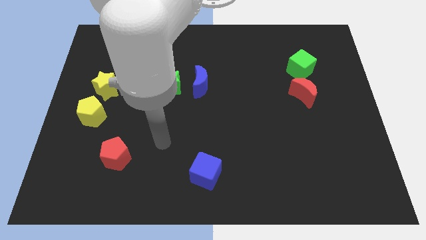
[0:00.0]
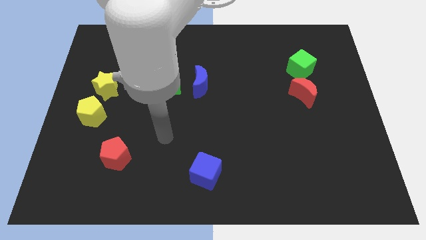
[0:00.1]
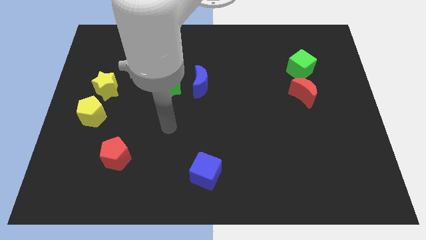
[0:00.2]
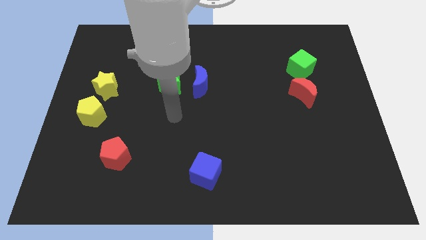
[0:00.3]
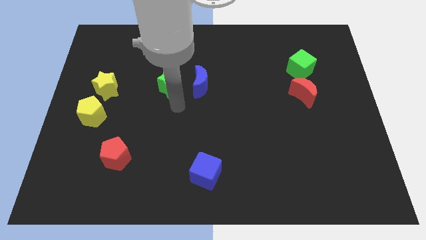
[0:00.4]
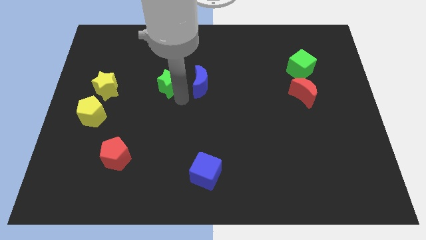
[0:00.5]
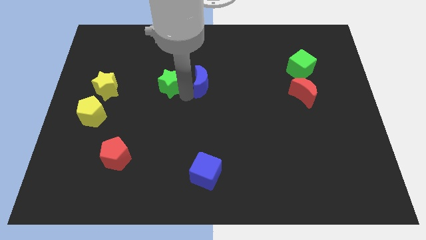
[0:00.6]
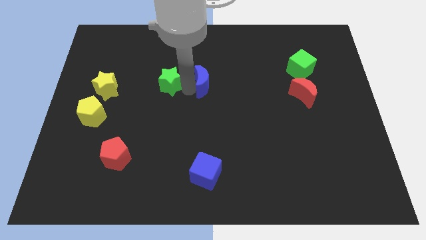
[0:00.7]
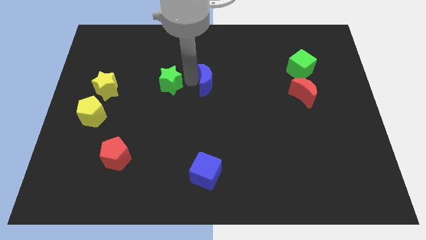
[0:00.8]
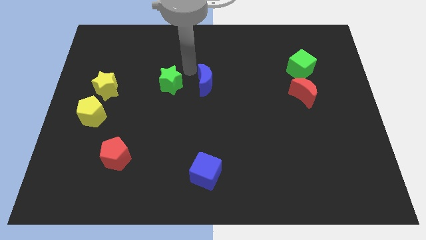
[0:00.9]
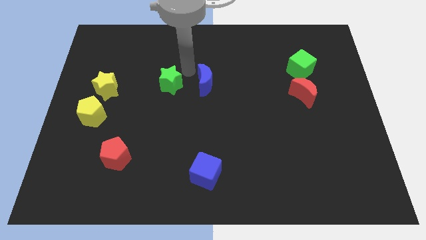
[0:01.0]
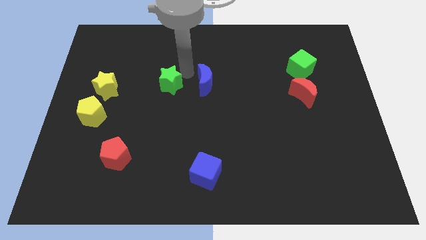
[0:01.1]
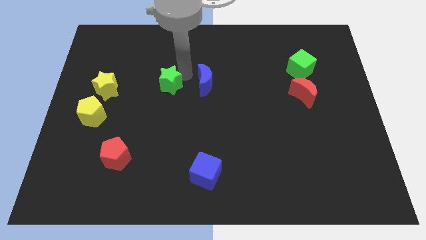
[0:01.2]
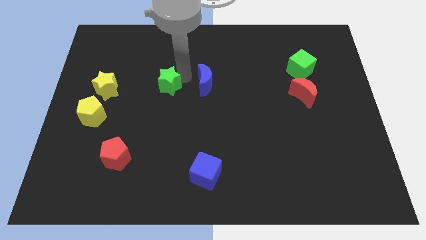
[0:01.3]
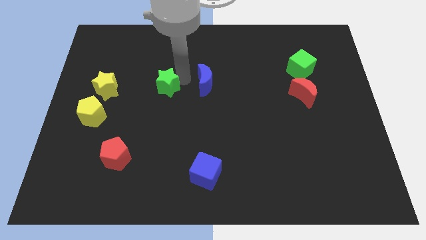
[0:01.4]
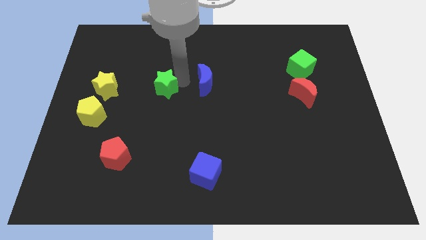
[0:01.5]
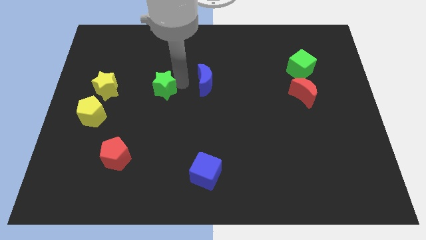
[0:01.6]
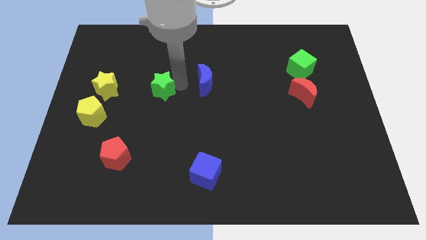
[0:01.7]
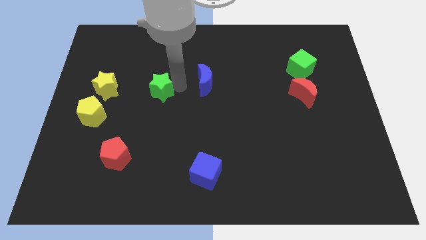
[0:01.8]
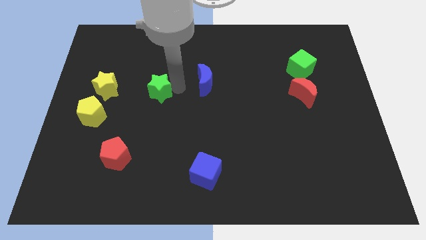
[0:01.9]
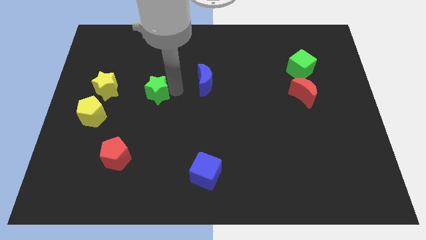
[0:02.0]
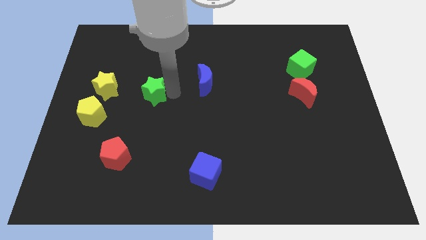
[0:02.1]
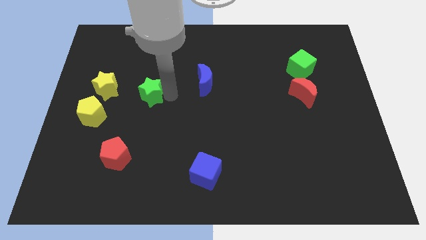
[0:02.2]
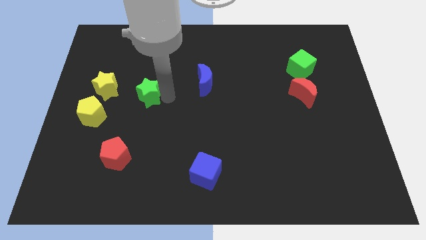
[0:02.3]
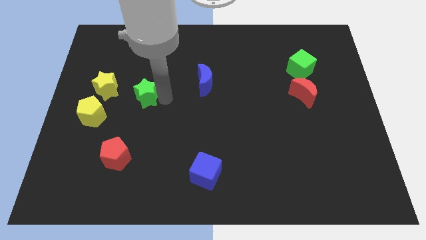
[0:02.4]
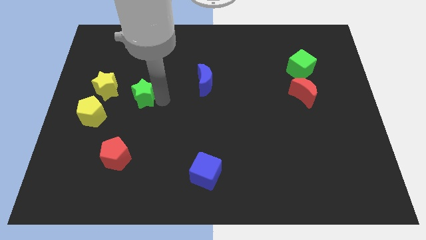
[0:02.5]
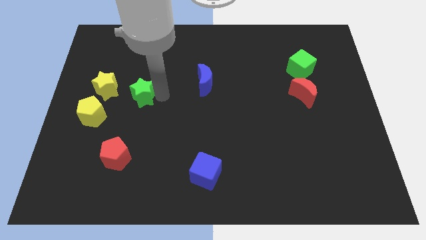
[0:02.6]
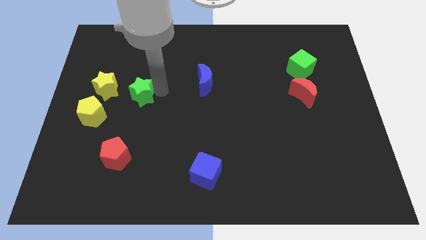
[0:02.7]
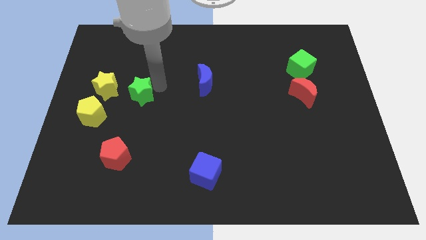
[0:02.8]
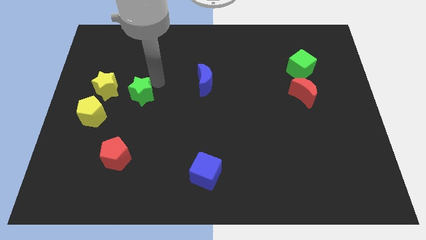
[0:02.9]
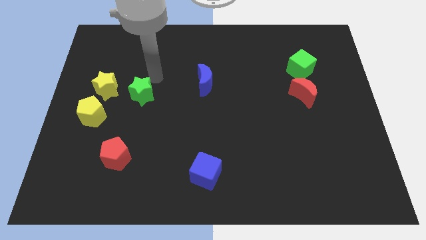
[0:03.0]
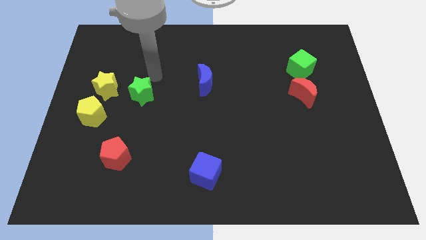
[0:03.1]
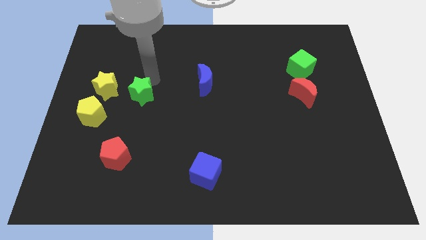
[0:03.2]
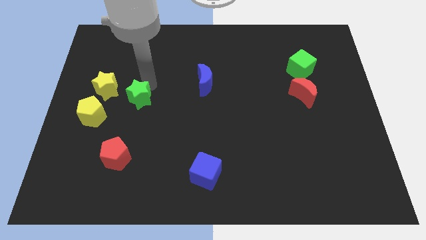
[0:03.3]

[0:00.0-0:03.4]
slide the green star down and then to the left a bit

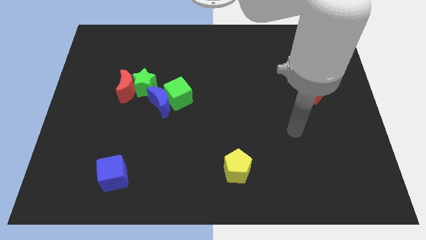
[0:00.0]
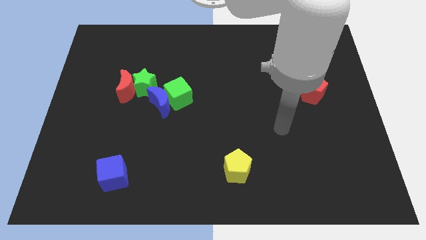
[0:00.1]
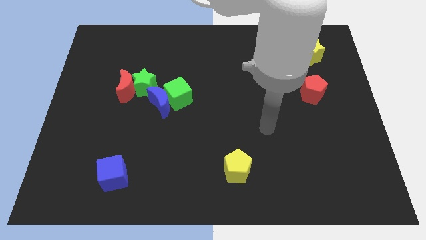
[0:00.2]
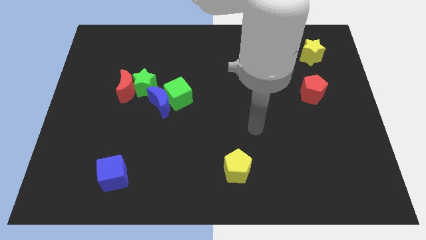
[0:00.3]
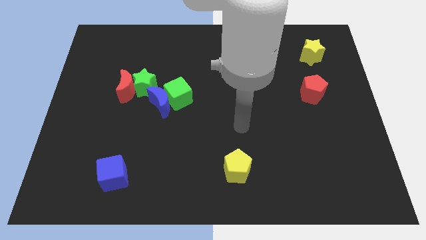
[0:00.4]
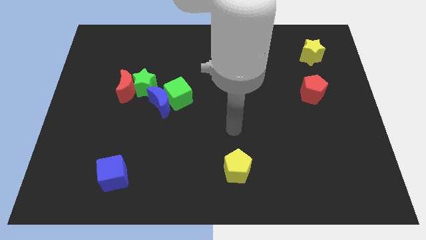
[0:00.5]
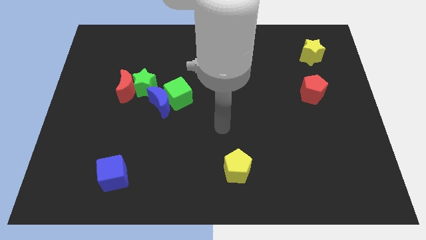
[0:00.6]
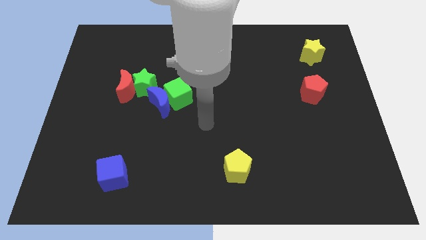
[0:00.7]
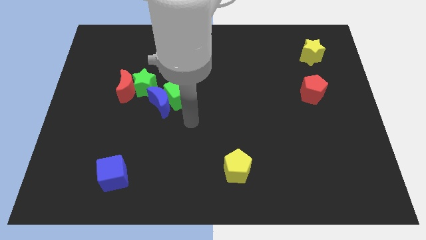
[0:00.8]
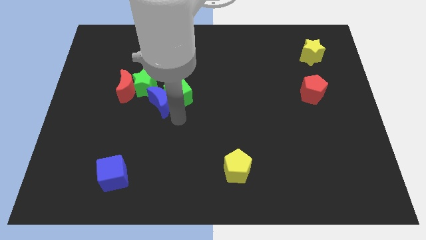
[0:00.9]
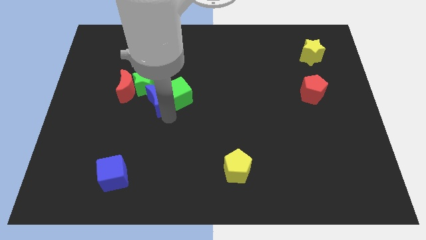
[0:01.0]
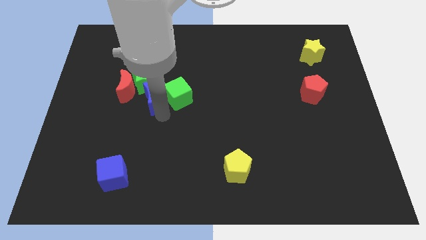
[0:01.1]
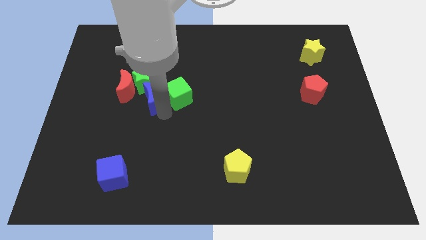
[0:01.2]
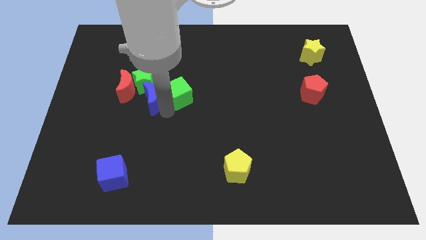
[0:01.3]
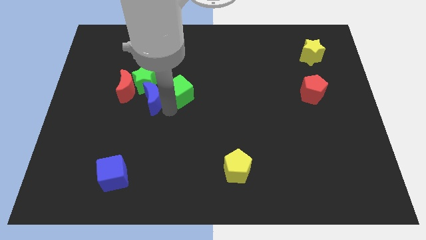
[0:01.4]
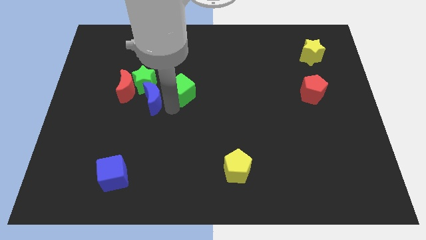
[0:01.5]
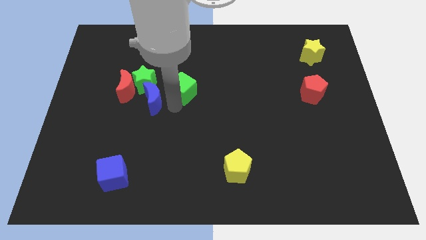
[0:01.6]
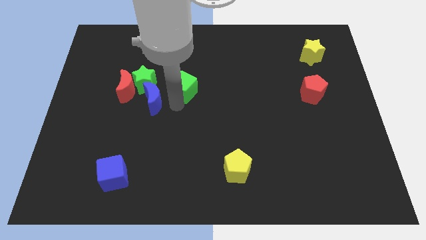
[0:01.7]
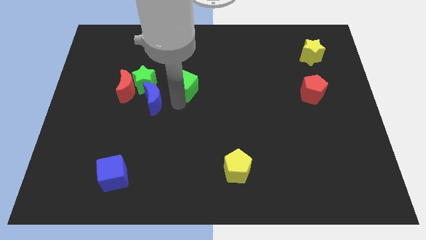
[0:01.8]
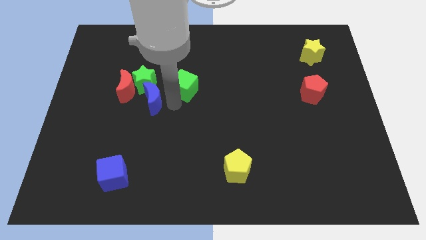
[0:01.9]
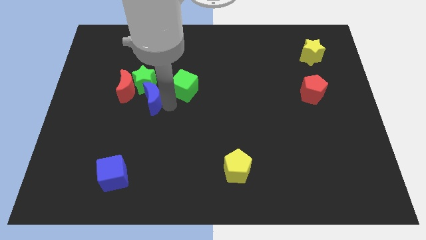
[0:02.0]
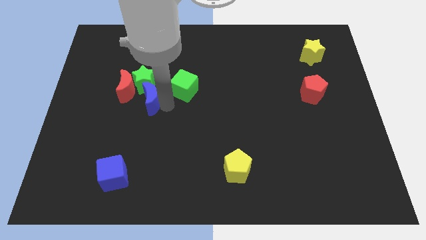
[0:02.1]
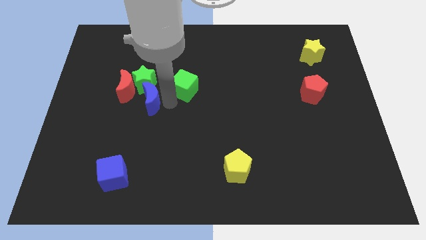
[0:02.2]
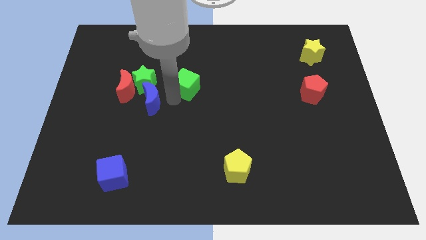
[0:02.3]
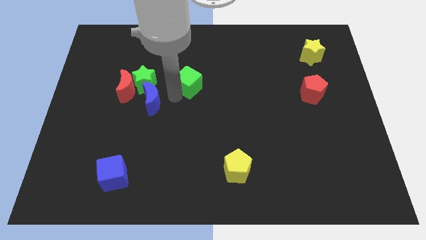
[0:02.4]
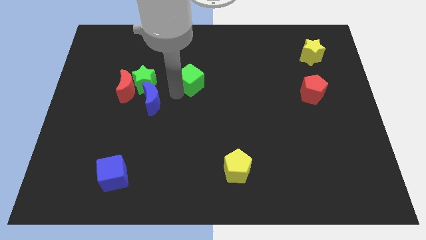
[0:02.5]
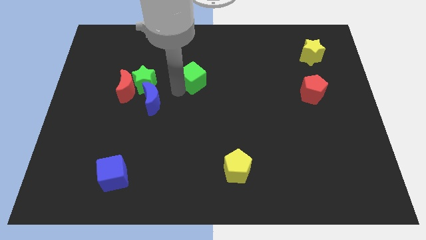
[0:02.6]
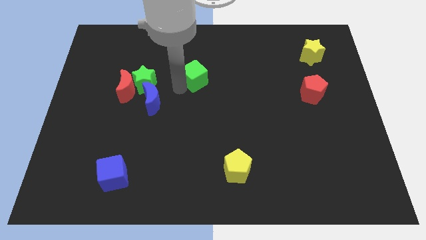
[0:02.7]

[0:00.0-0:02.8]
slide the green cube upwards and then right a little bit

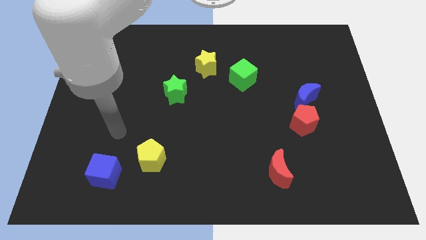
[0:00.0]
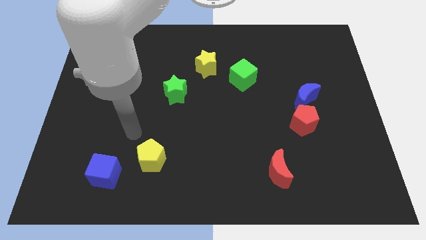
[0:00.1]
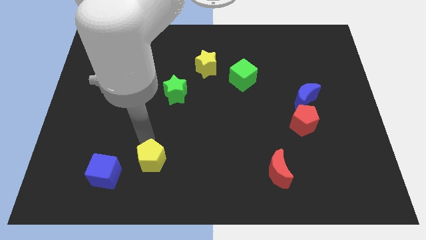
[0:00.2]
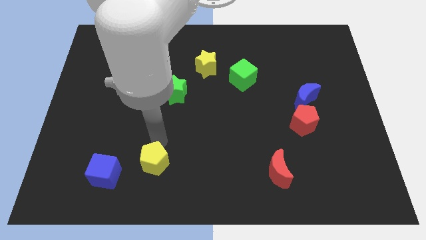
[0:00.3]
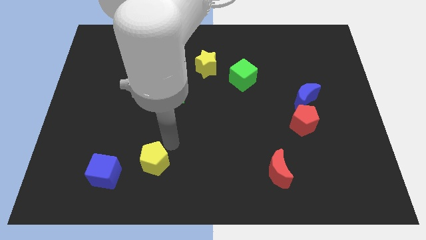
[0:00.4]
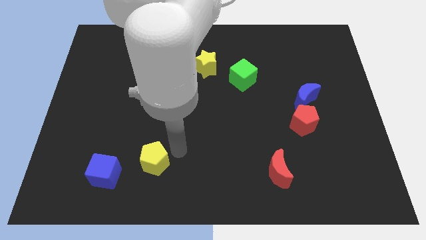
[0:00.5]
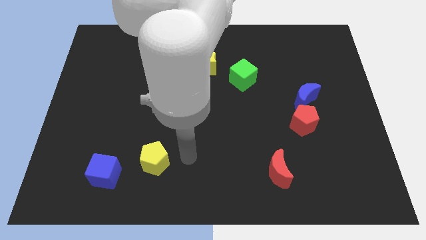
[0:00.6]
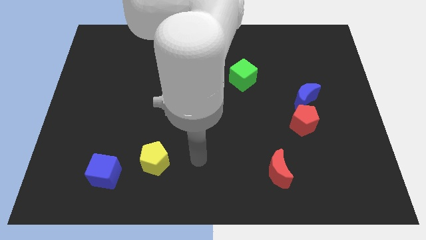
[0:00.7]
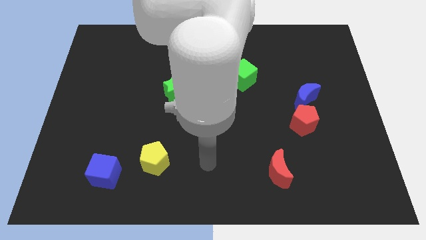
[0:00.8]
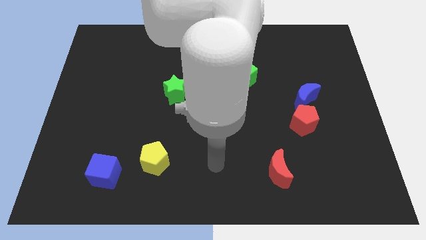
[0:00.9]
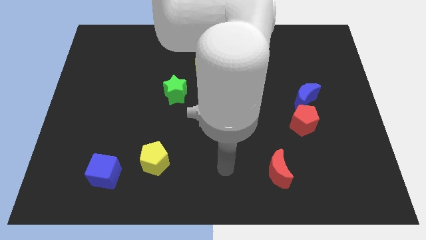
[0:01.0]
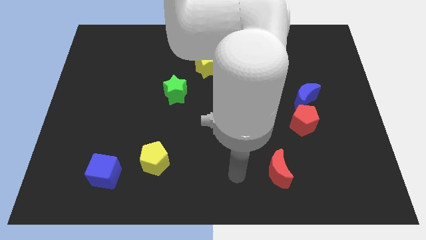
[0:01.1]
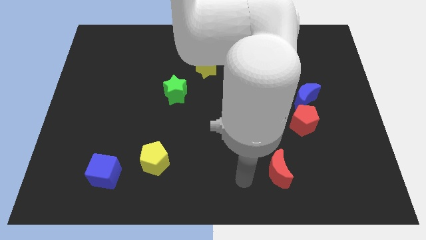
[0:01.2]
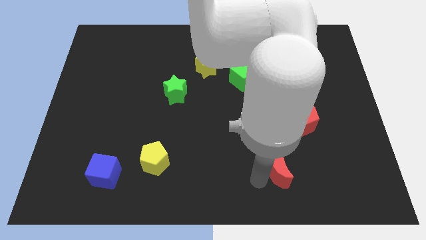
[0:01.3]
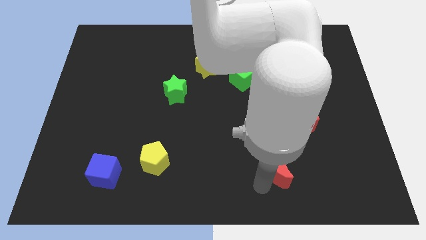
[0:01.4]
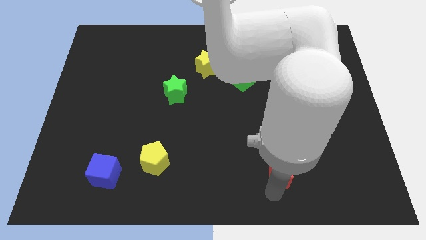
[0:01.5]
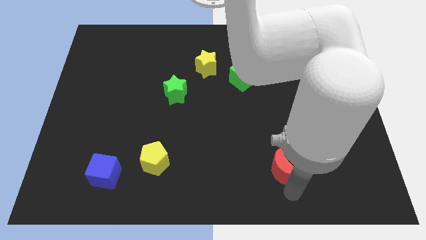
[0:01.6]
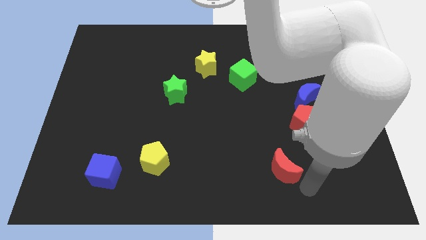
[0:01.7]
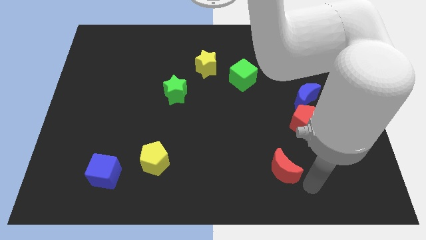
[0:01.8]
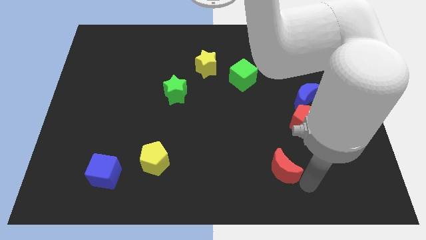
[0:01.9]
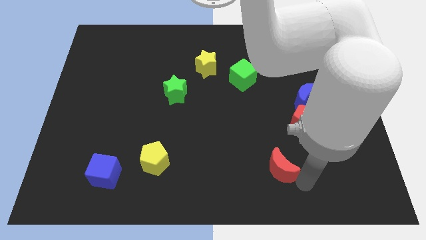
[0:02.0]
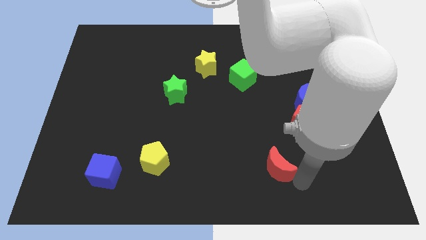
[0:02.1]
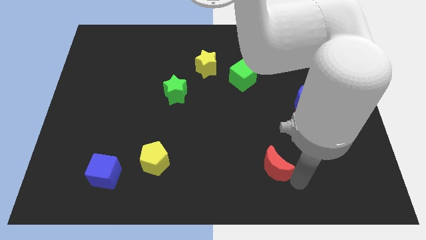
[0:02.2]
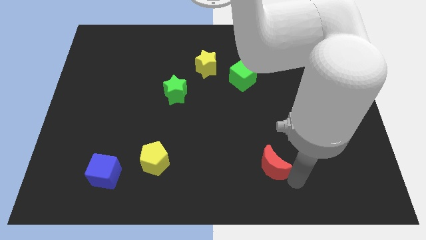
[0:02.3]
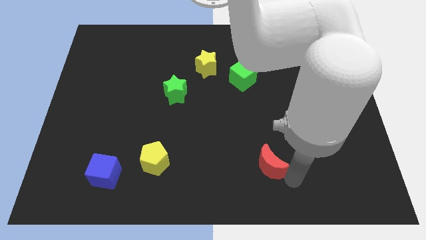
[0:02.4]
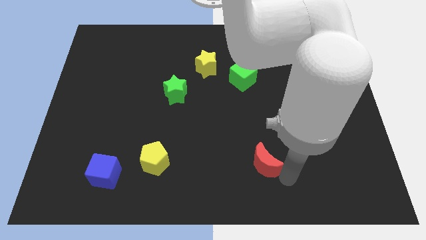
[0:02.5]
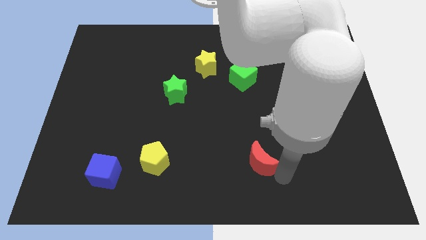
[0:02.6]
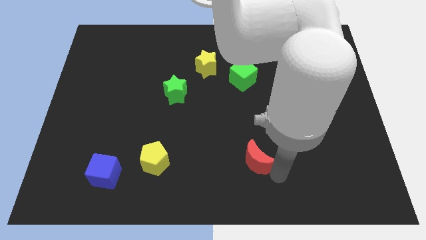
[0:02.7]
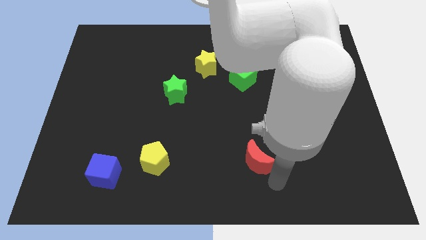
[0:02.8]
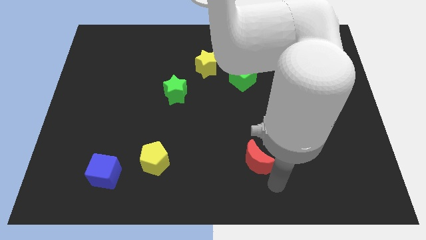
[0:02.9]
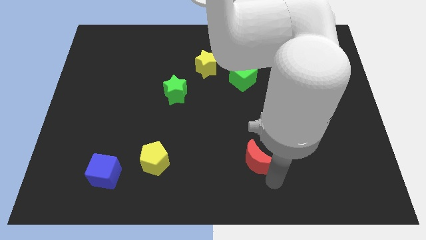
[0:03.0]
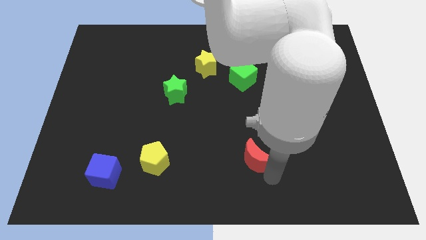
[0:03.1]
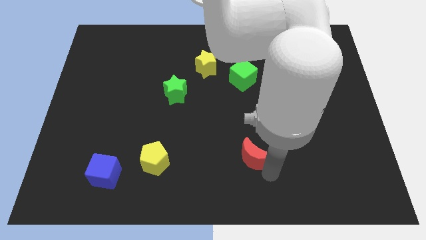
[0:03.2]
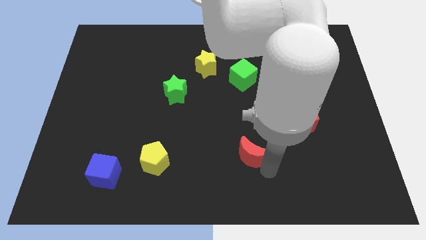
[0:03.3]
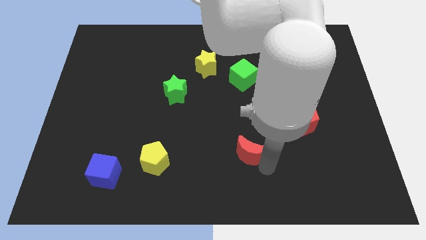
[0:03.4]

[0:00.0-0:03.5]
slightly move the red moon up and to the left
